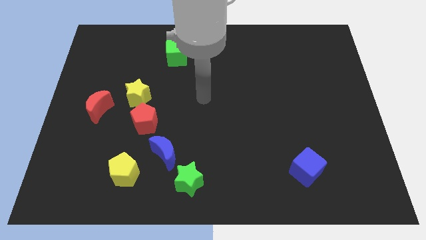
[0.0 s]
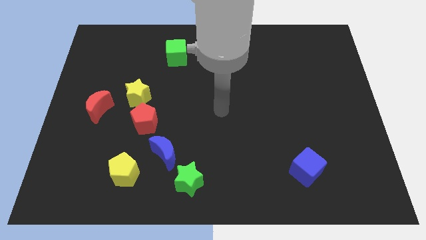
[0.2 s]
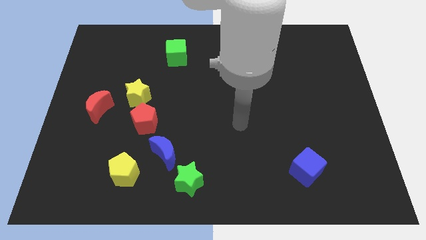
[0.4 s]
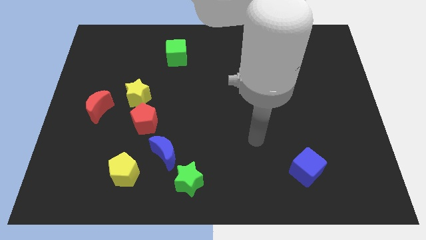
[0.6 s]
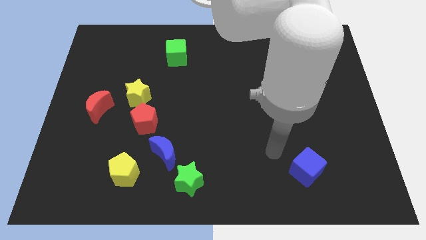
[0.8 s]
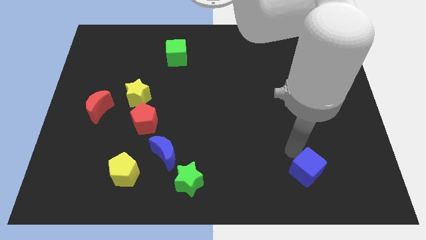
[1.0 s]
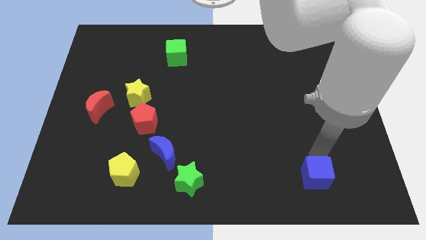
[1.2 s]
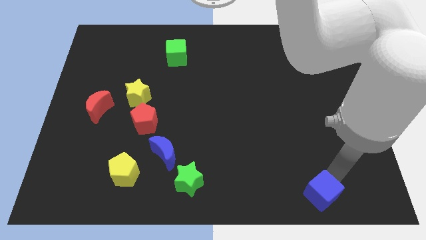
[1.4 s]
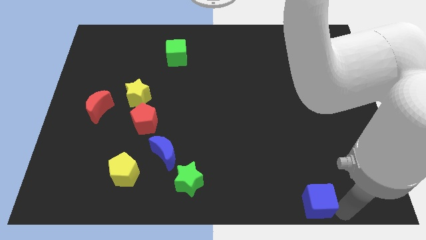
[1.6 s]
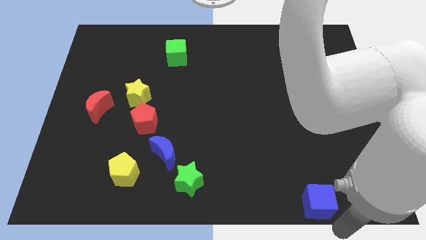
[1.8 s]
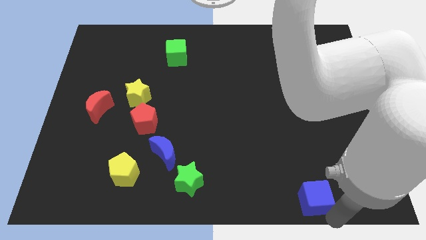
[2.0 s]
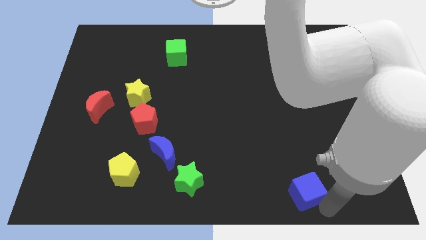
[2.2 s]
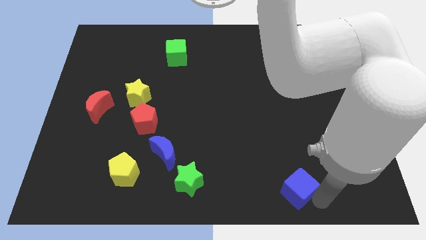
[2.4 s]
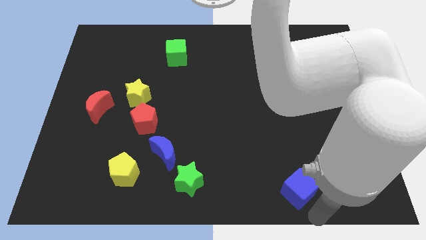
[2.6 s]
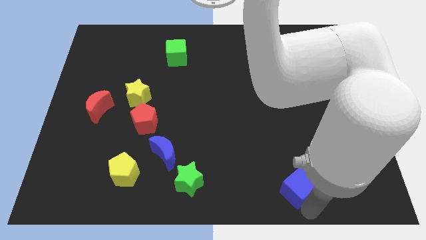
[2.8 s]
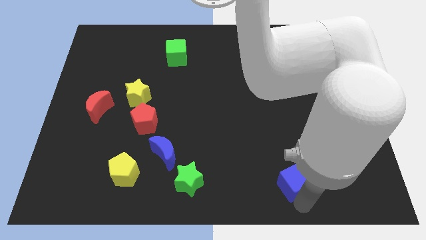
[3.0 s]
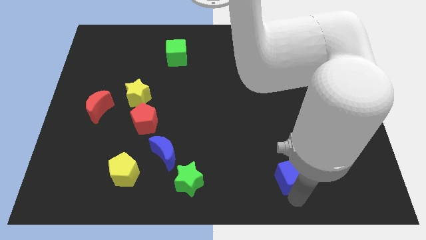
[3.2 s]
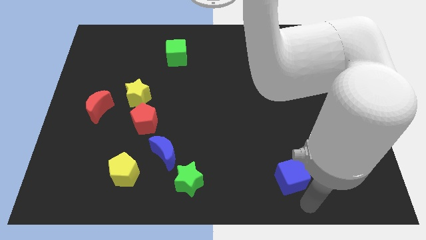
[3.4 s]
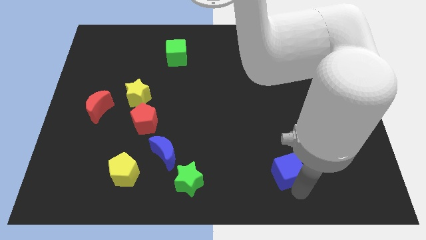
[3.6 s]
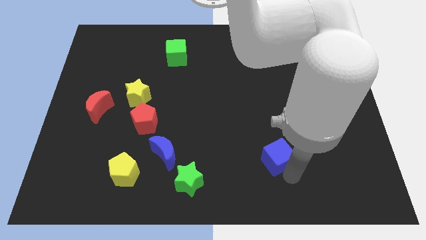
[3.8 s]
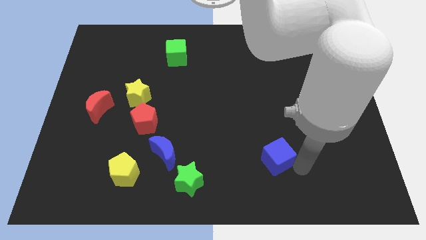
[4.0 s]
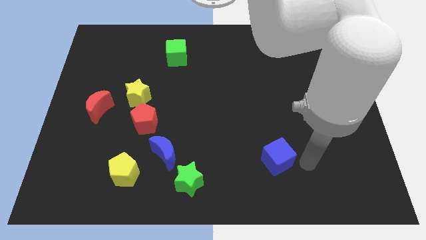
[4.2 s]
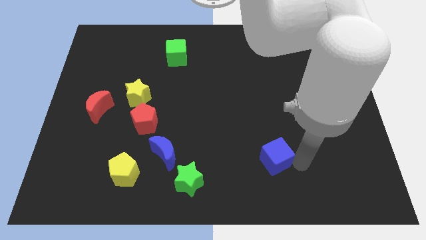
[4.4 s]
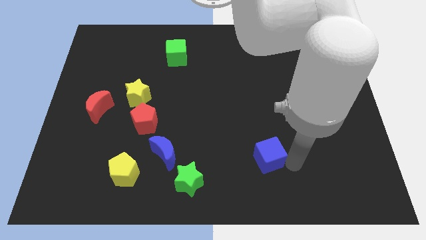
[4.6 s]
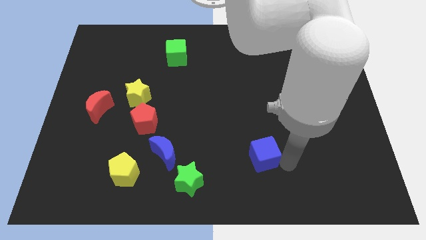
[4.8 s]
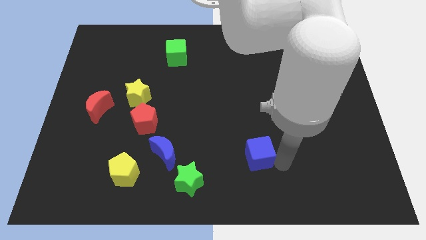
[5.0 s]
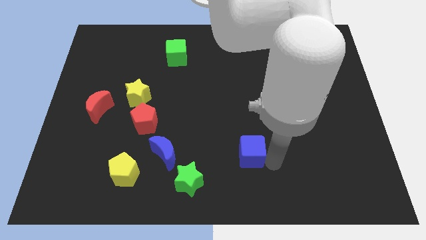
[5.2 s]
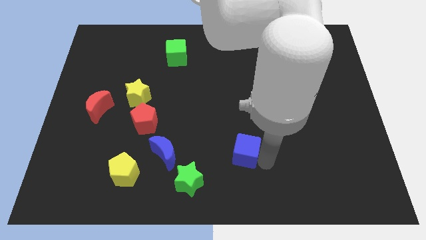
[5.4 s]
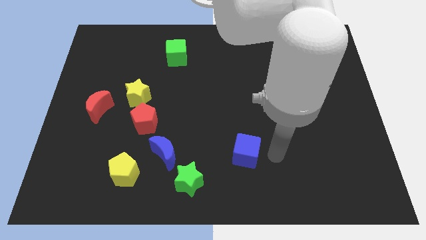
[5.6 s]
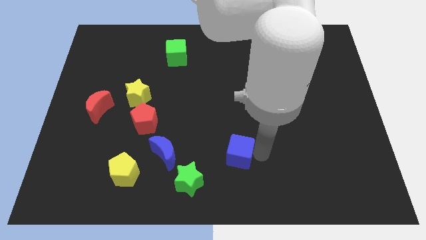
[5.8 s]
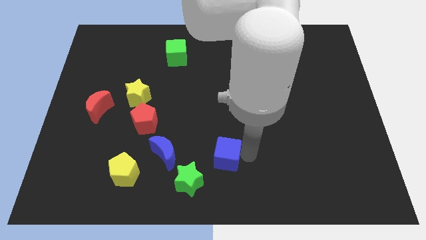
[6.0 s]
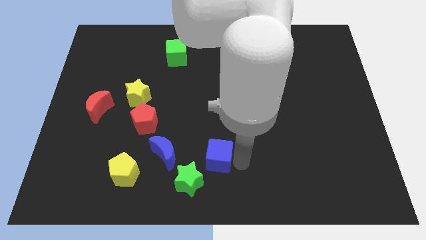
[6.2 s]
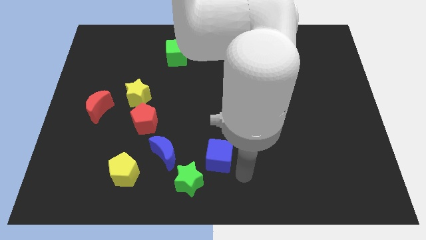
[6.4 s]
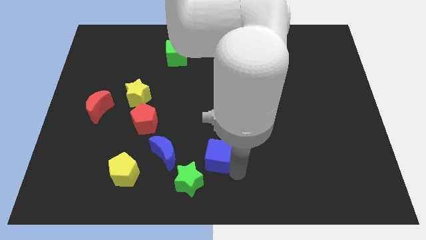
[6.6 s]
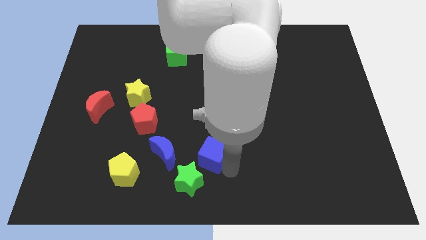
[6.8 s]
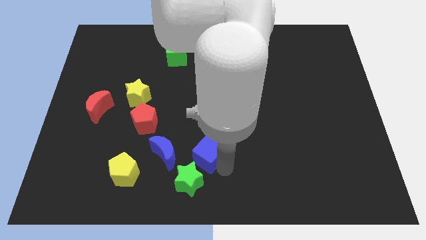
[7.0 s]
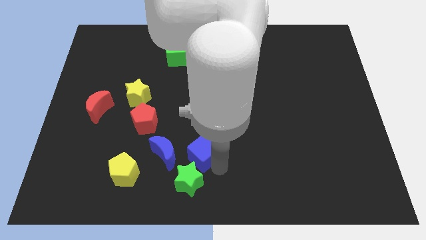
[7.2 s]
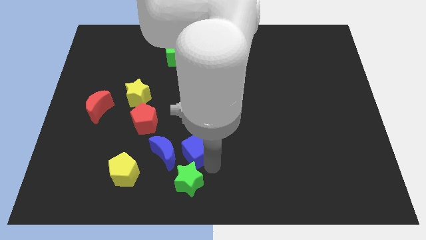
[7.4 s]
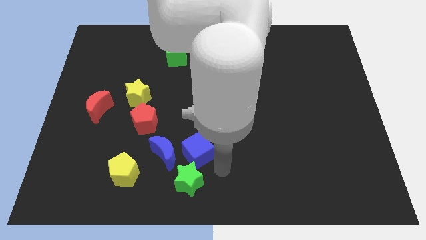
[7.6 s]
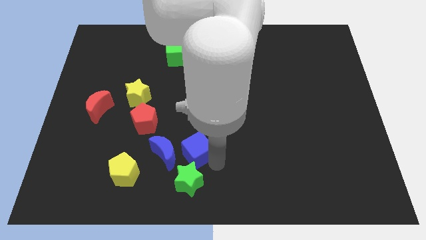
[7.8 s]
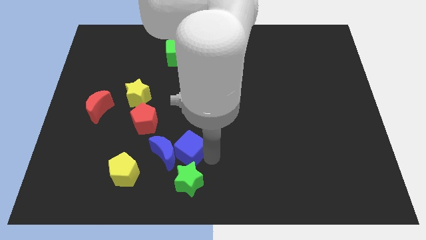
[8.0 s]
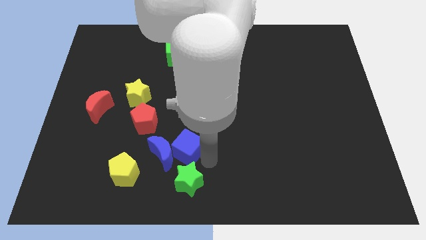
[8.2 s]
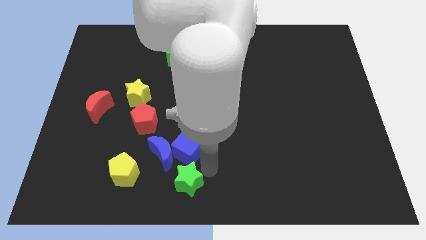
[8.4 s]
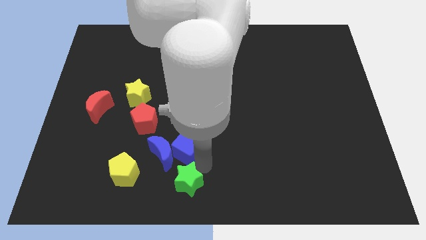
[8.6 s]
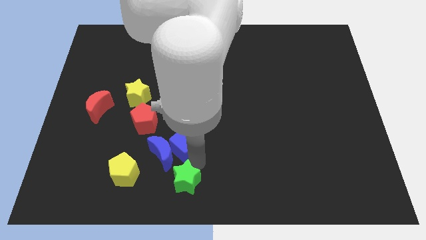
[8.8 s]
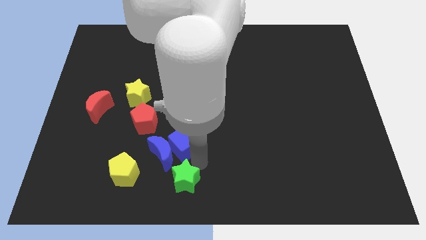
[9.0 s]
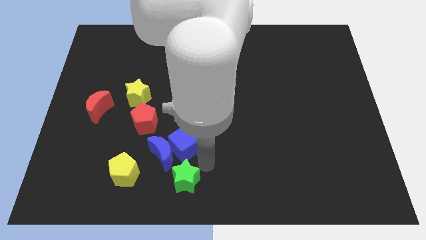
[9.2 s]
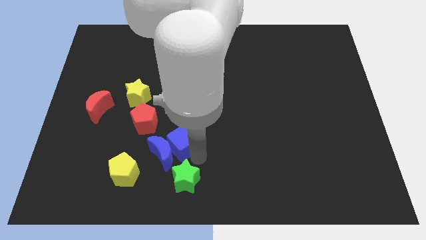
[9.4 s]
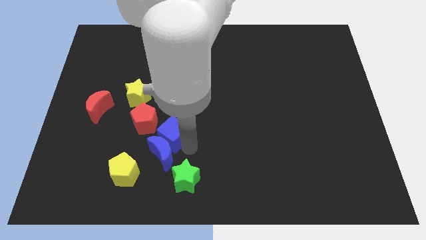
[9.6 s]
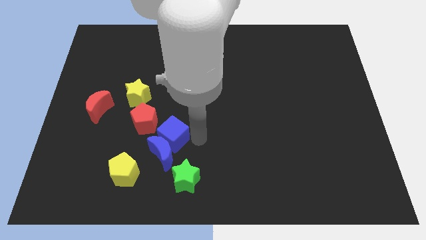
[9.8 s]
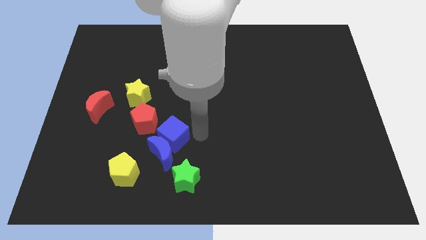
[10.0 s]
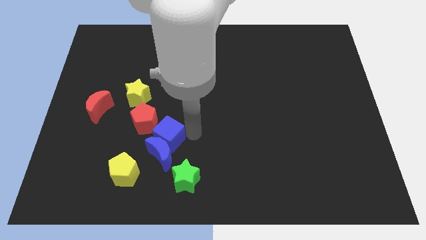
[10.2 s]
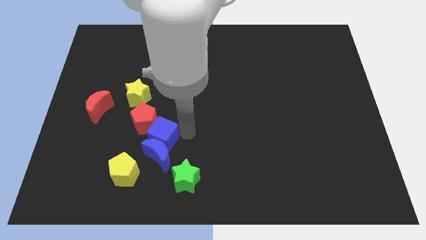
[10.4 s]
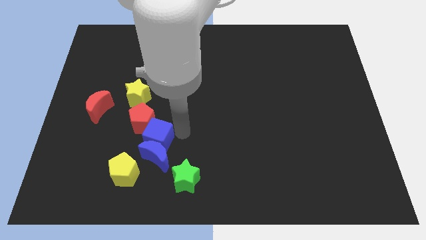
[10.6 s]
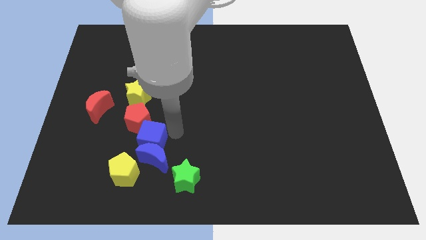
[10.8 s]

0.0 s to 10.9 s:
slide the blue cube to the bottom of the yellow star

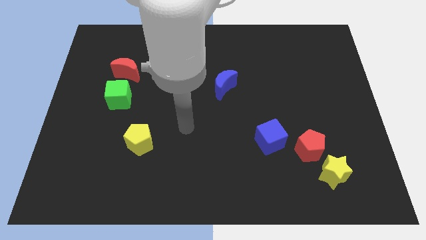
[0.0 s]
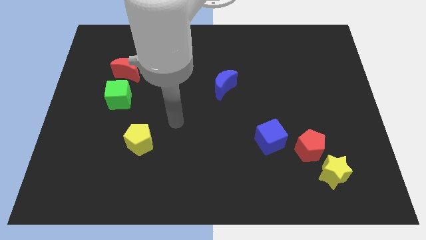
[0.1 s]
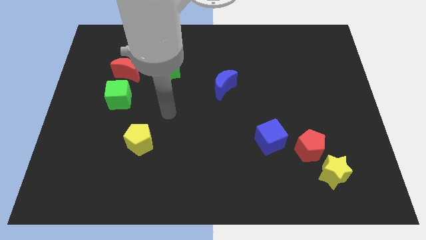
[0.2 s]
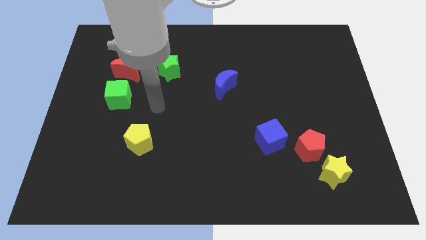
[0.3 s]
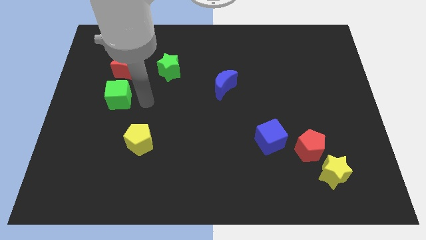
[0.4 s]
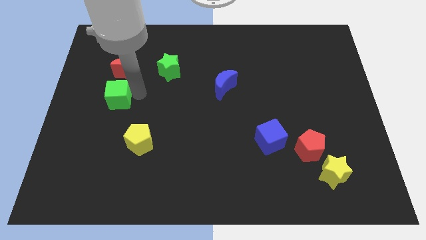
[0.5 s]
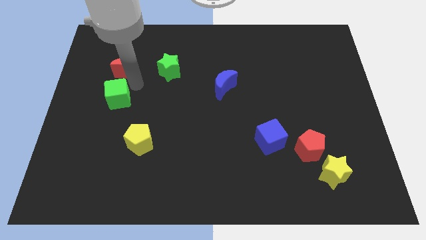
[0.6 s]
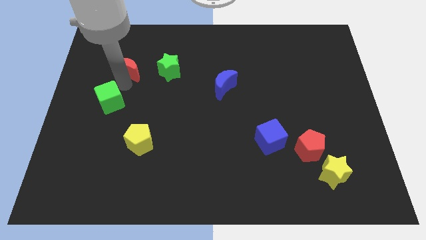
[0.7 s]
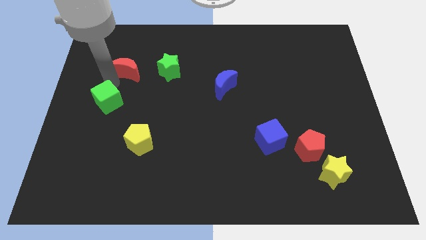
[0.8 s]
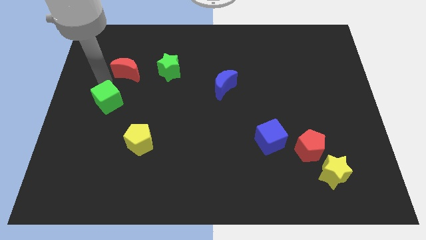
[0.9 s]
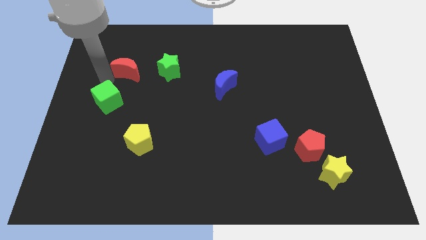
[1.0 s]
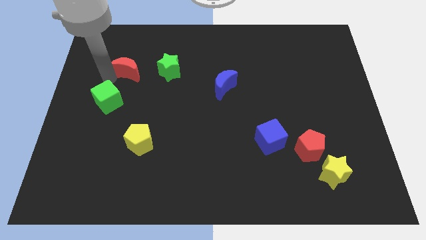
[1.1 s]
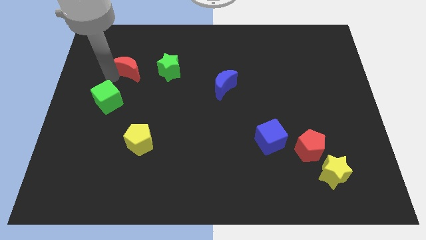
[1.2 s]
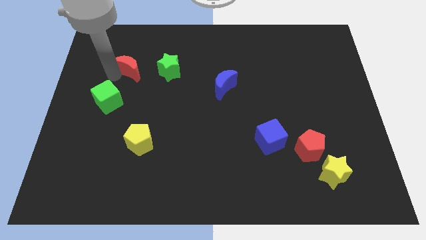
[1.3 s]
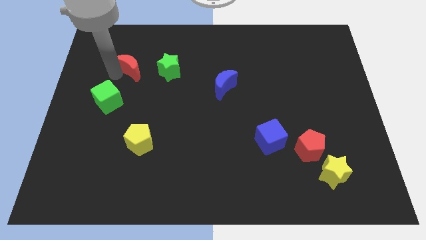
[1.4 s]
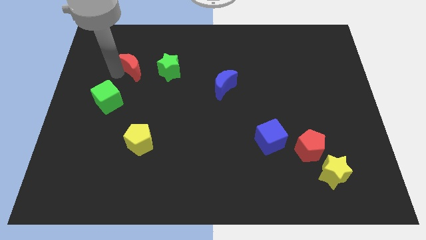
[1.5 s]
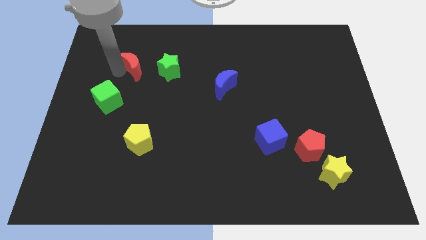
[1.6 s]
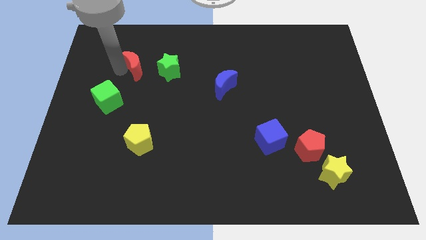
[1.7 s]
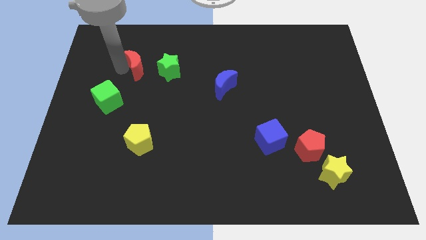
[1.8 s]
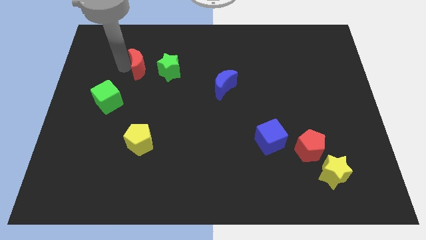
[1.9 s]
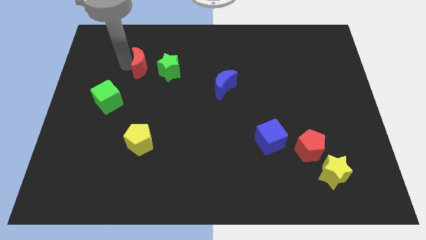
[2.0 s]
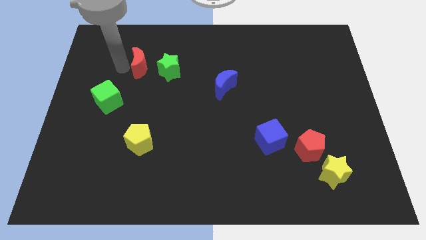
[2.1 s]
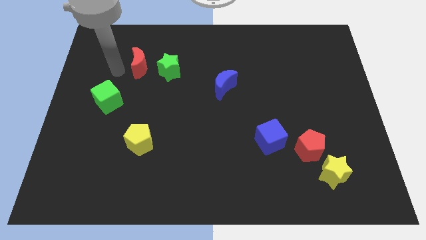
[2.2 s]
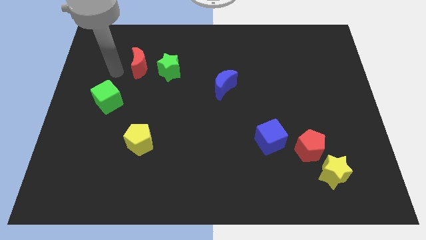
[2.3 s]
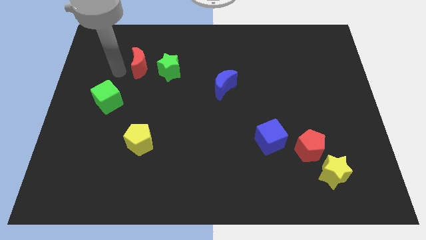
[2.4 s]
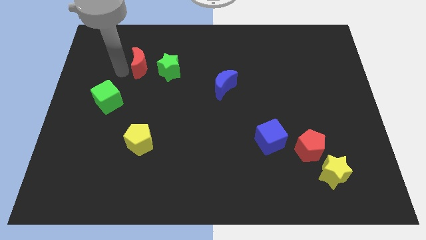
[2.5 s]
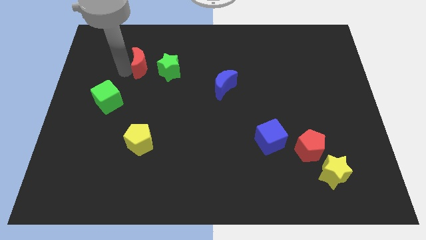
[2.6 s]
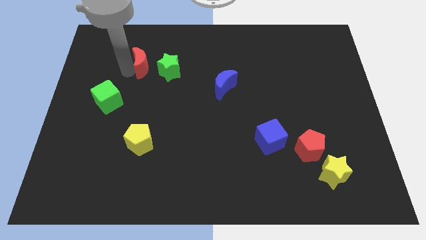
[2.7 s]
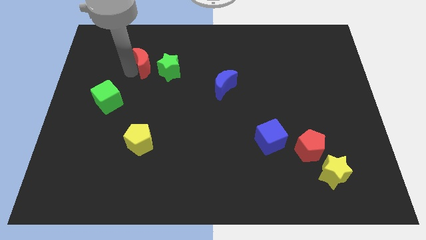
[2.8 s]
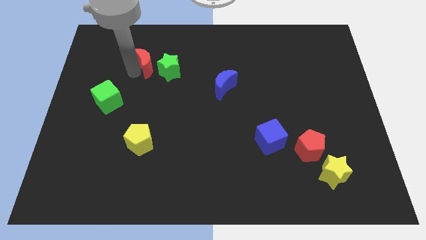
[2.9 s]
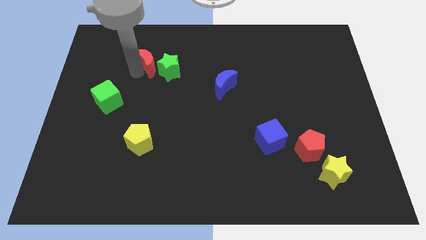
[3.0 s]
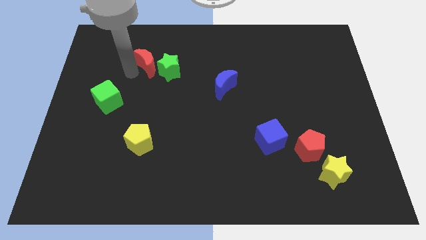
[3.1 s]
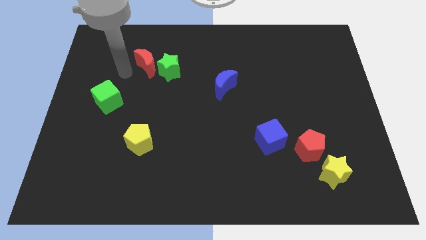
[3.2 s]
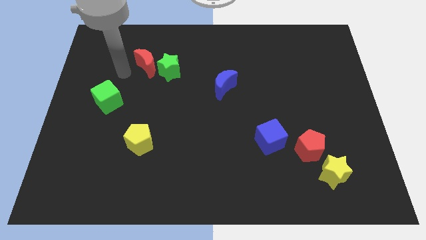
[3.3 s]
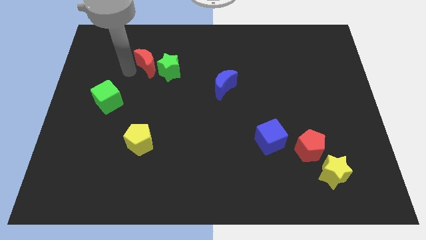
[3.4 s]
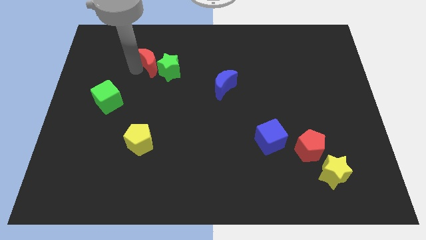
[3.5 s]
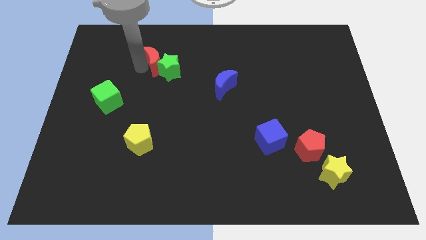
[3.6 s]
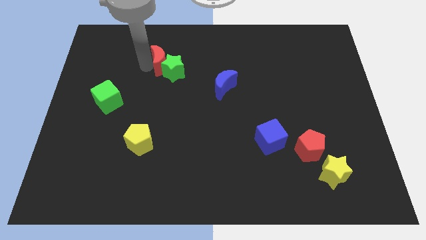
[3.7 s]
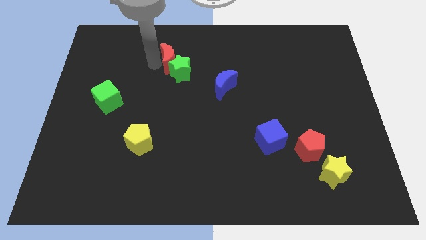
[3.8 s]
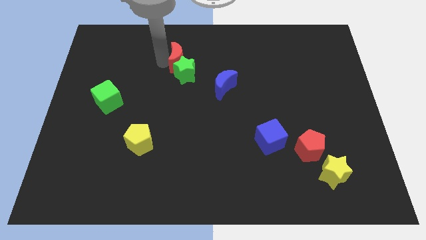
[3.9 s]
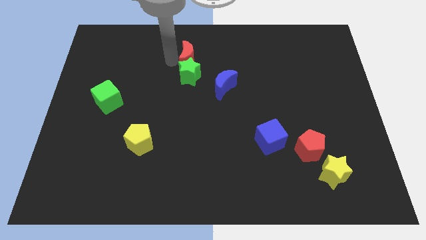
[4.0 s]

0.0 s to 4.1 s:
put the red moon to the top right side of the green star
